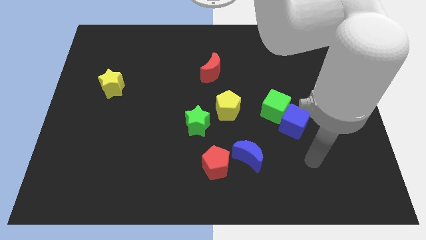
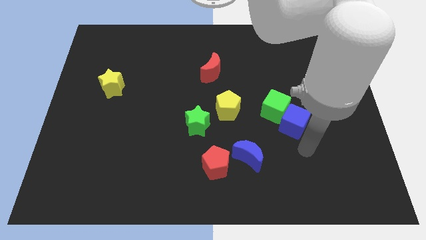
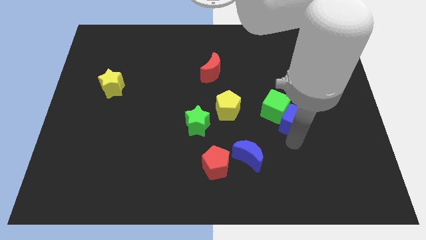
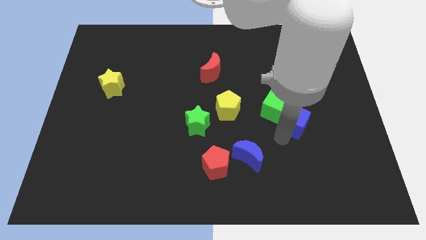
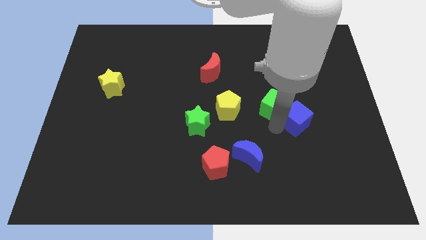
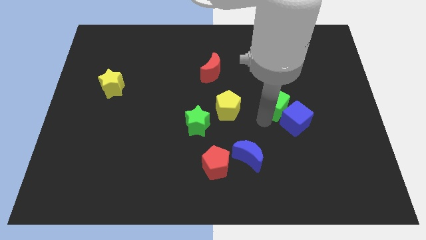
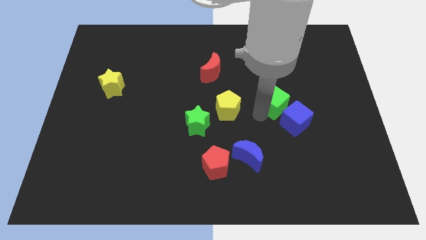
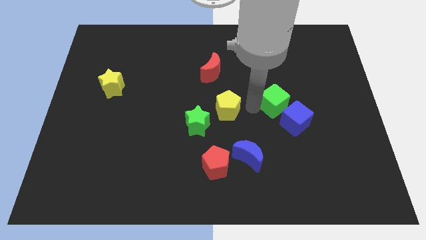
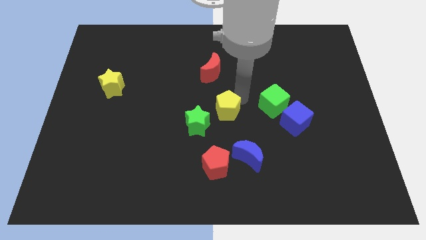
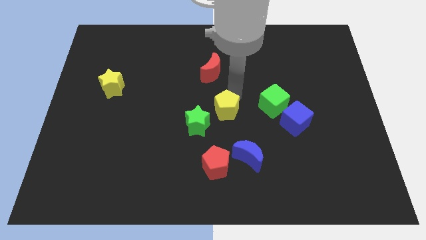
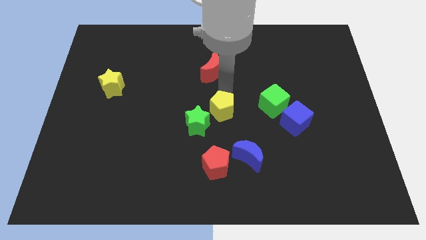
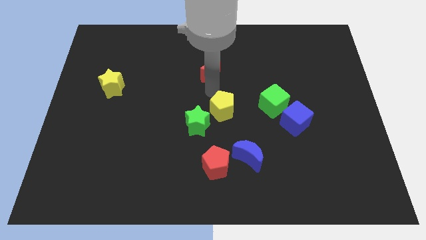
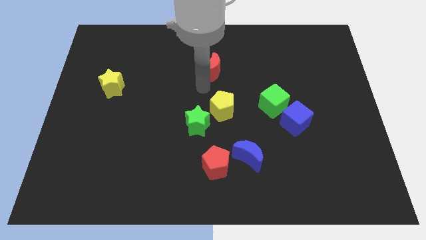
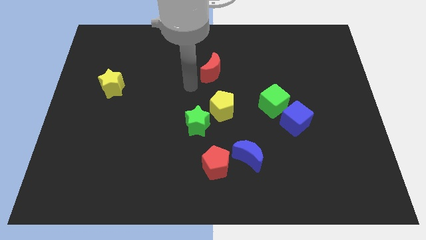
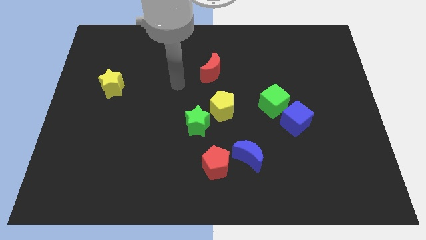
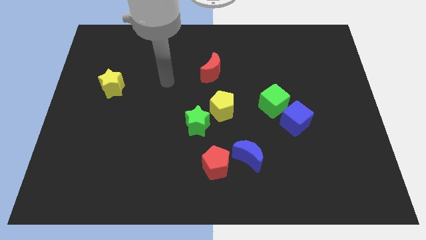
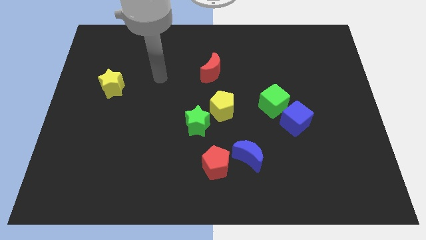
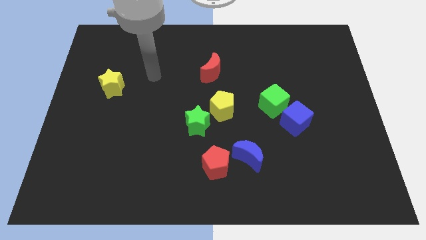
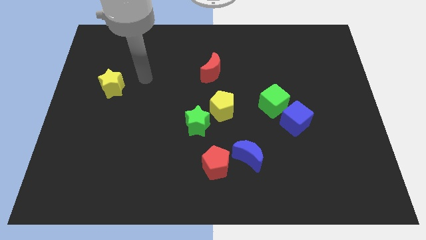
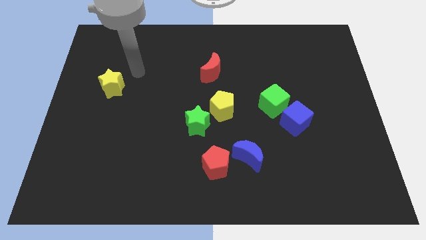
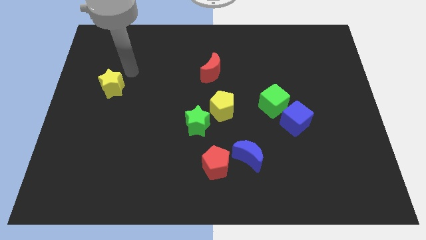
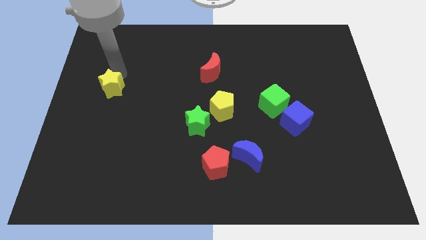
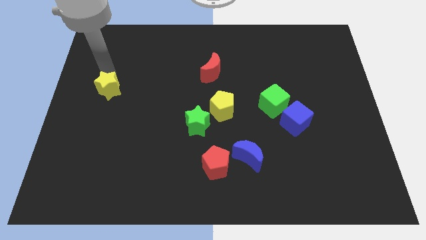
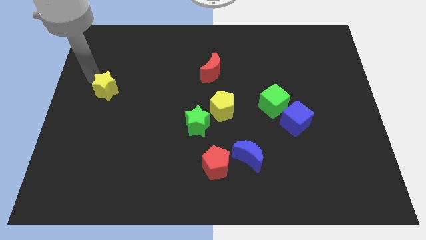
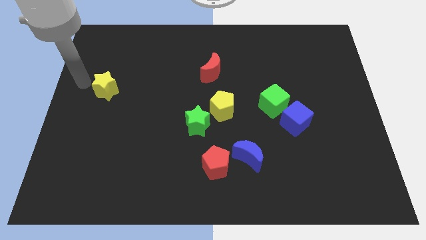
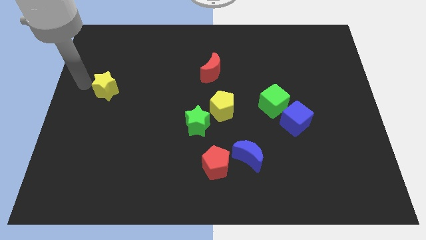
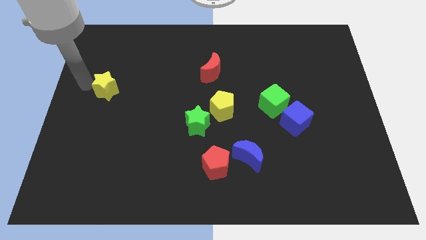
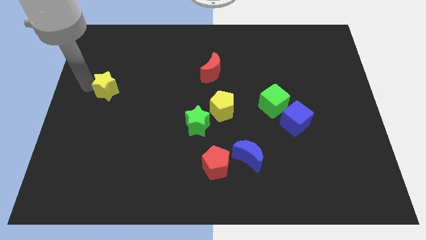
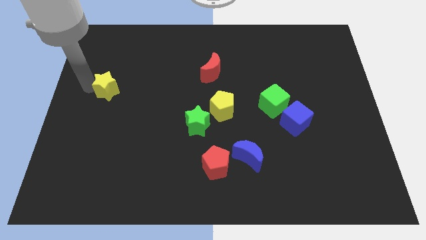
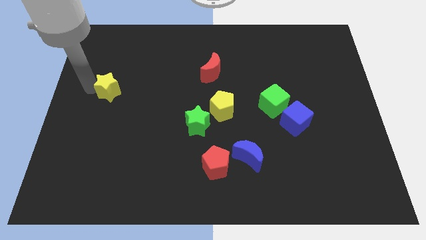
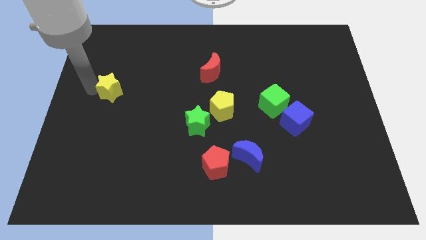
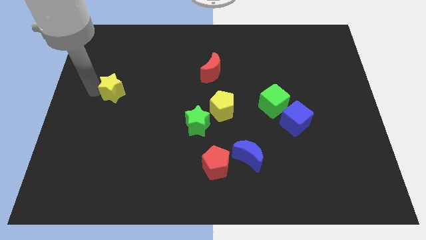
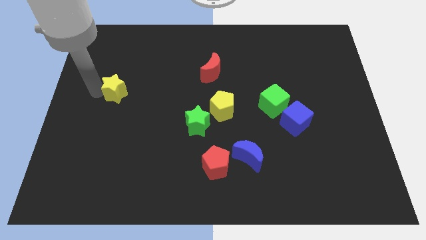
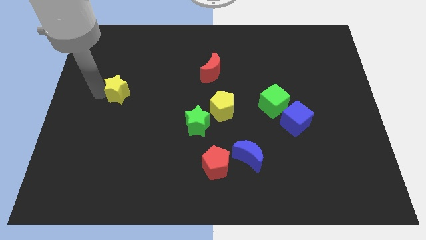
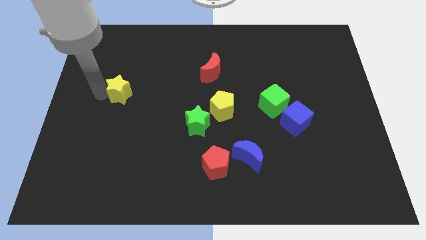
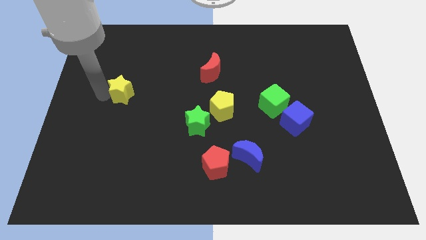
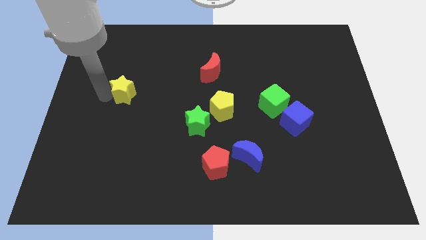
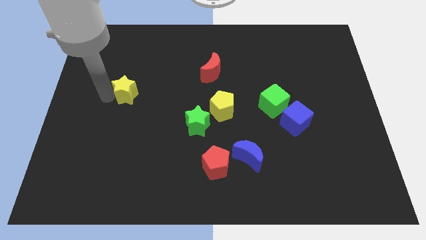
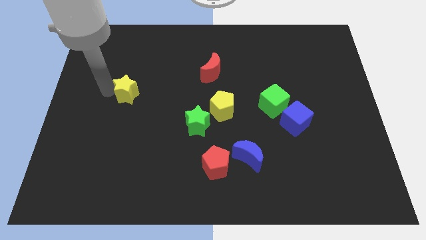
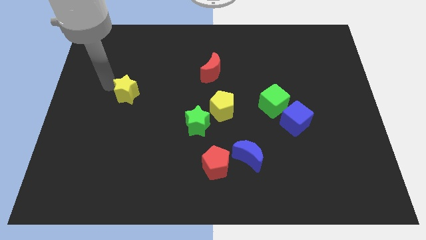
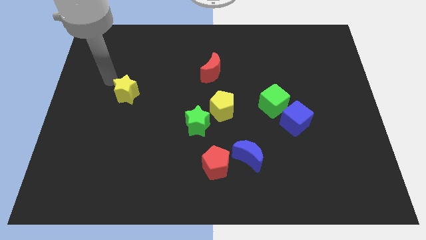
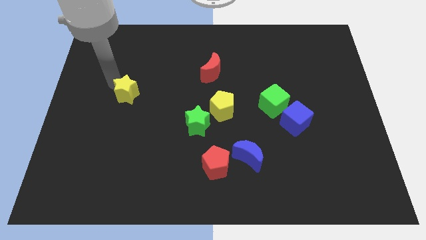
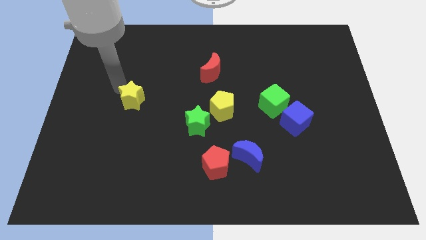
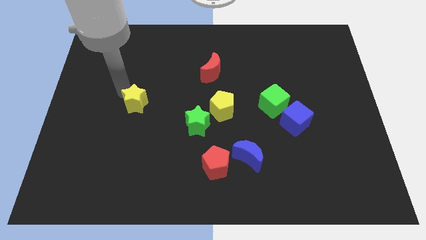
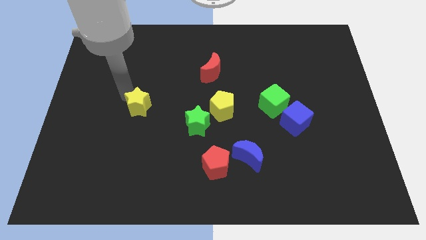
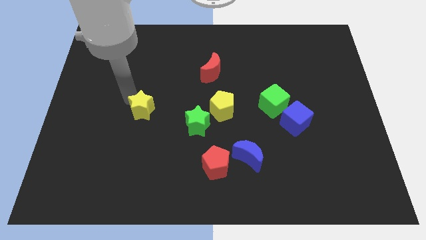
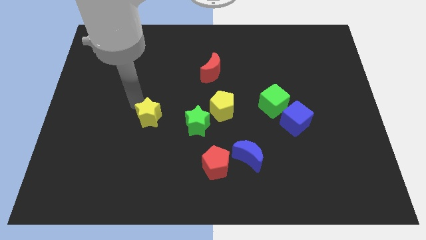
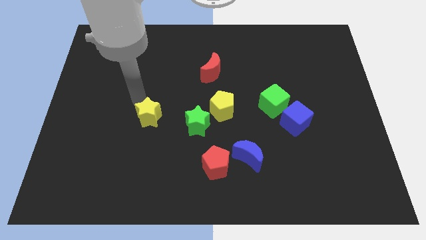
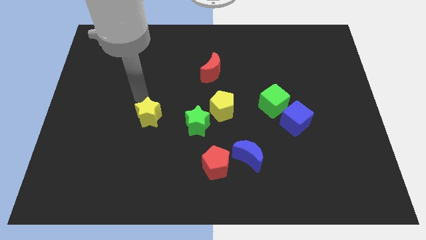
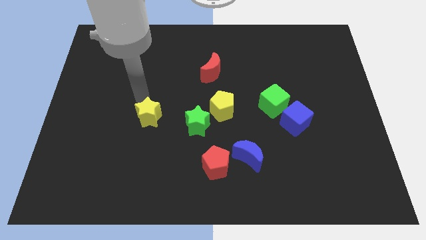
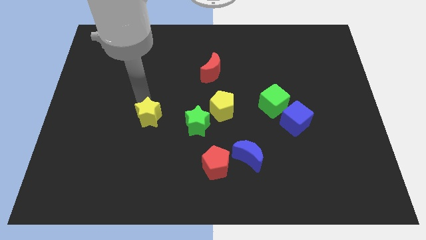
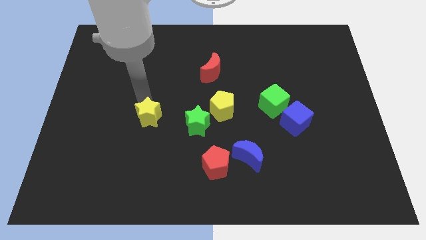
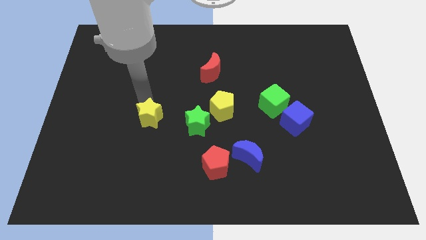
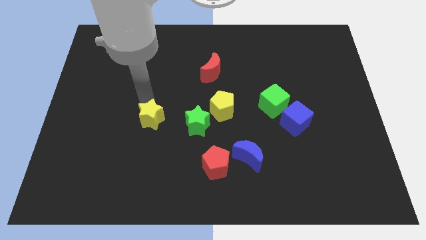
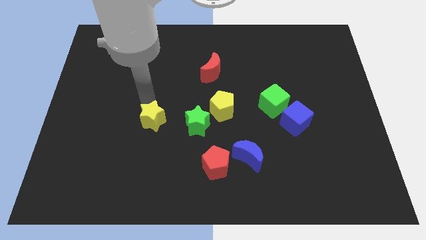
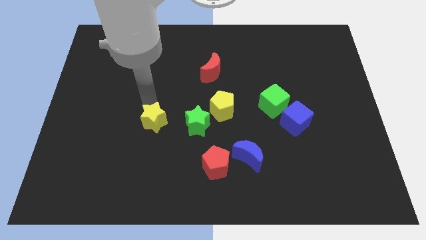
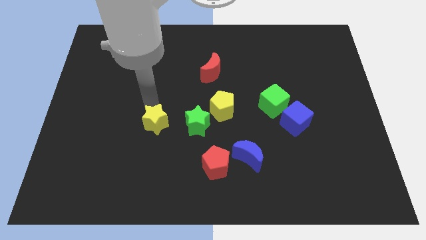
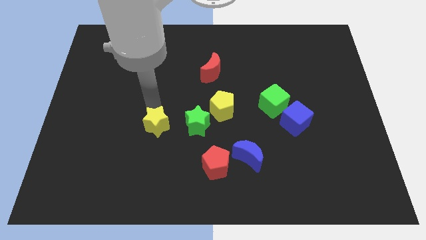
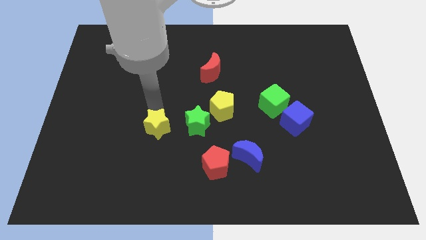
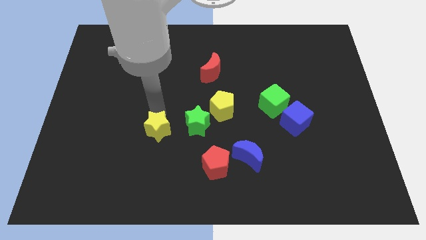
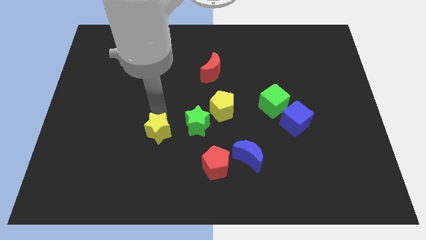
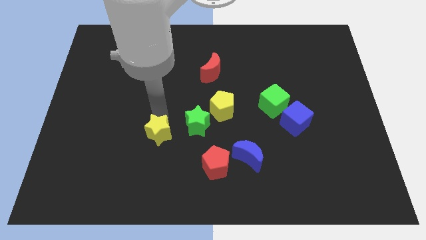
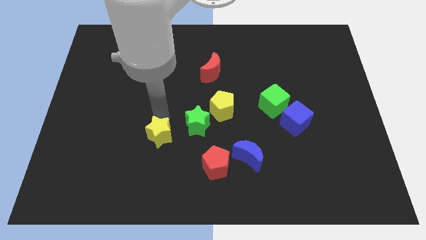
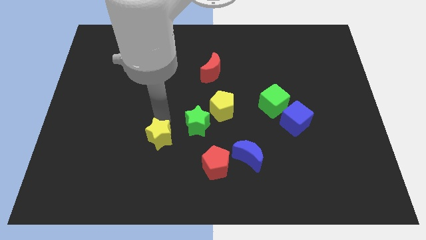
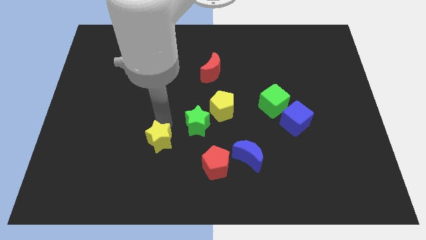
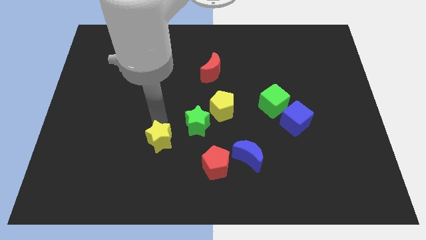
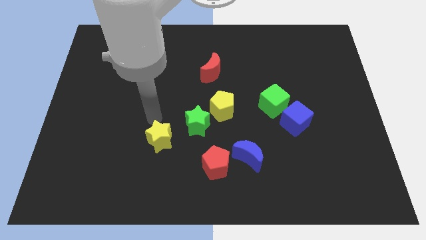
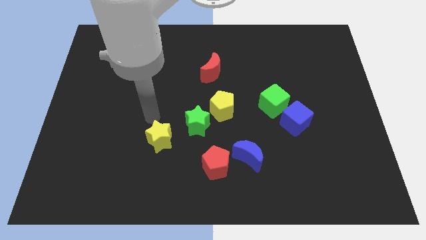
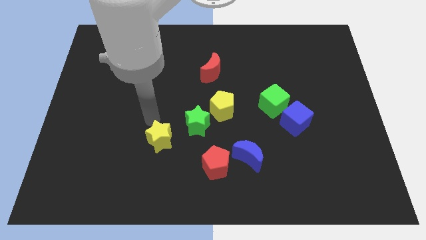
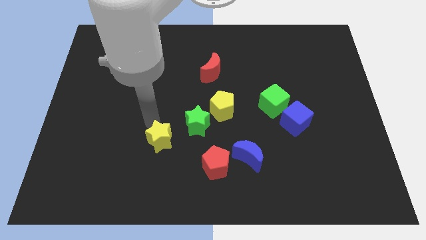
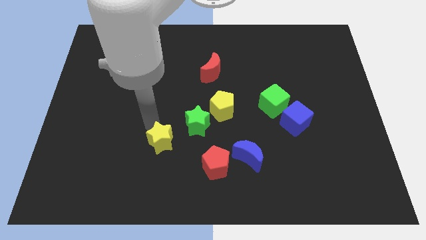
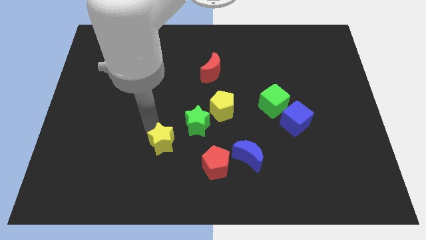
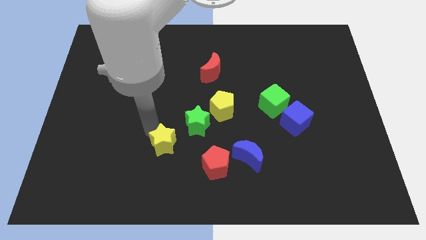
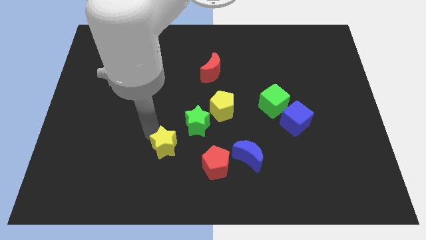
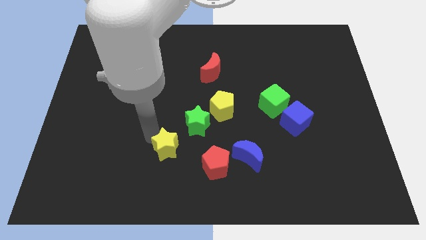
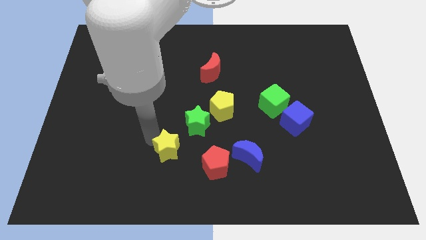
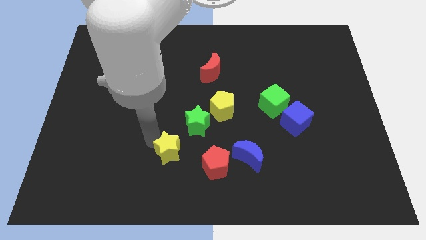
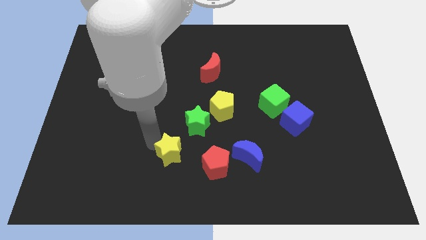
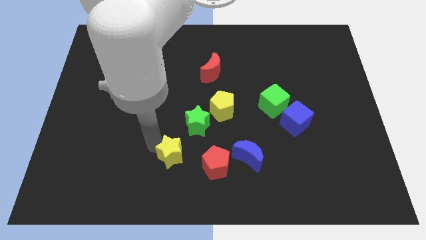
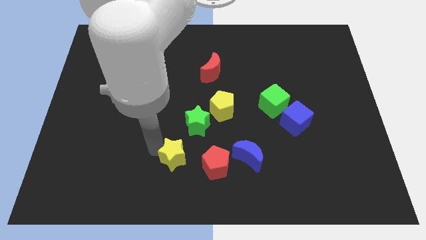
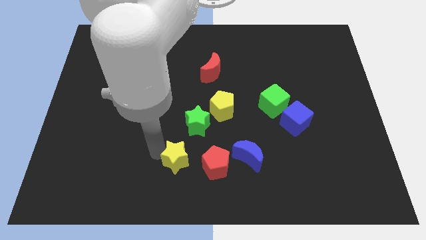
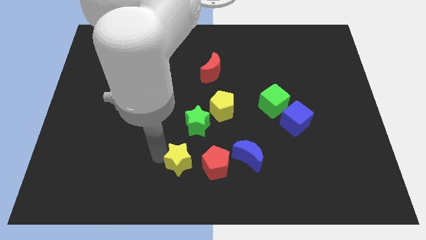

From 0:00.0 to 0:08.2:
move the yellow star to the bottom side

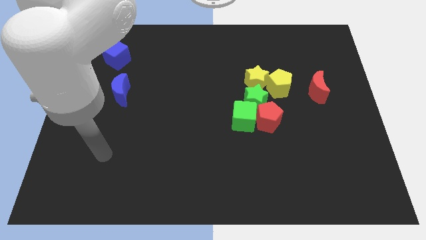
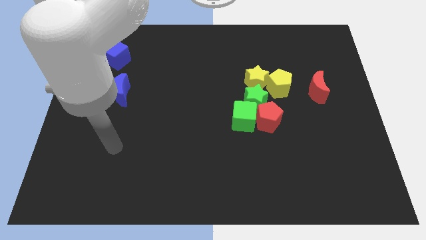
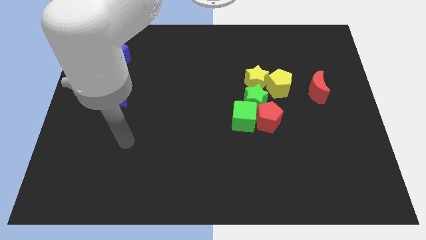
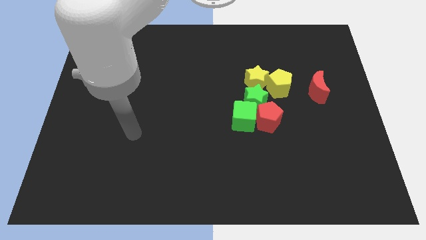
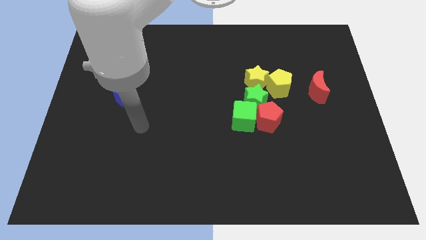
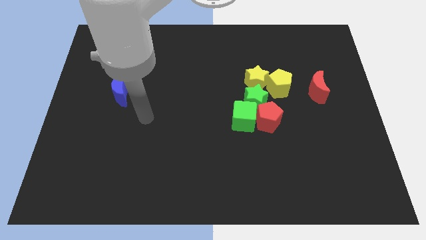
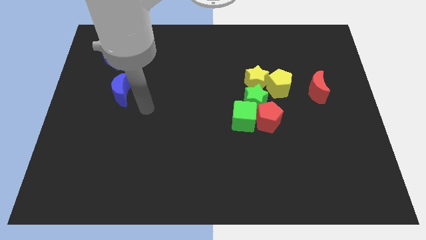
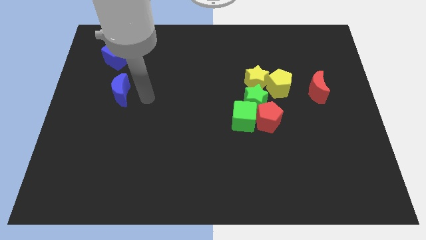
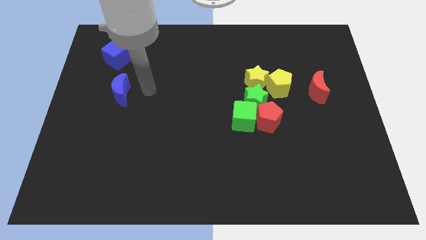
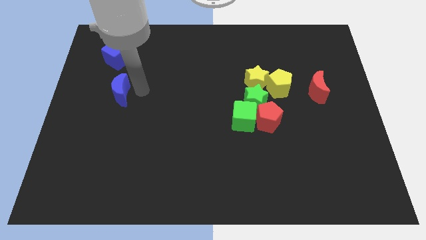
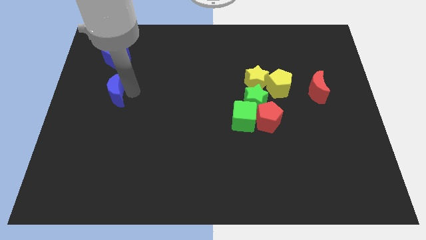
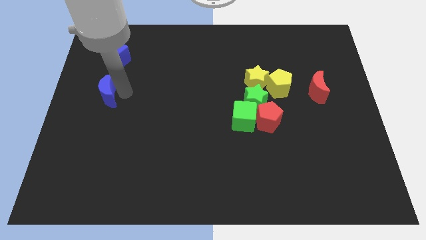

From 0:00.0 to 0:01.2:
put the blue moon to the left side
